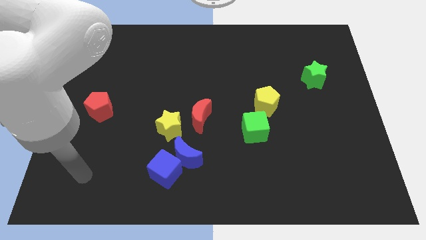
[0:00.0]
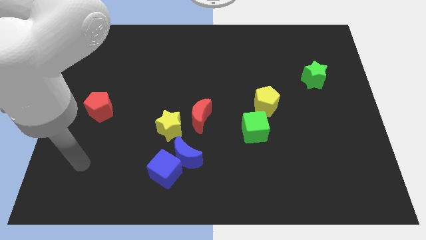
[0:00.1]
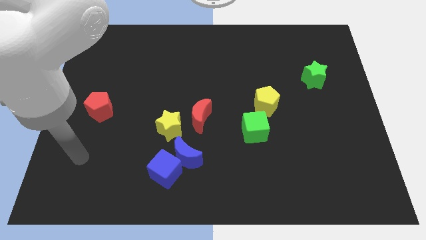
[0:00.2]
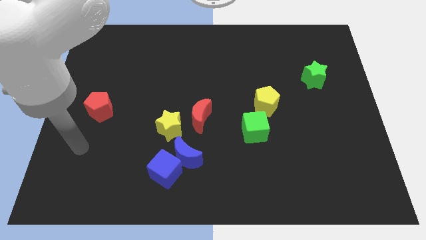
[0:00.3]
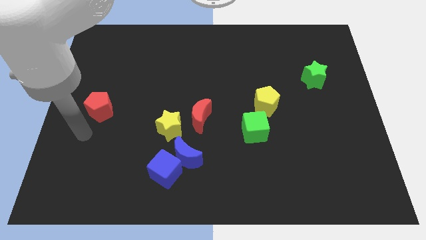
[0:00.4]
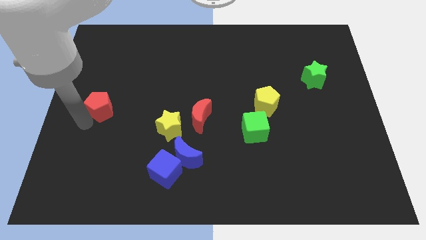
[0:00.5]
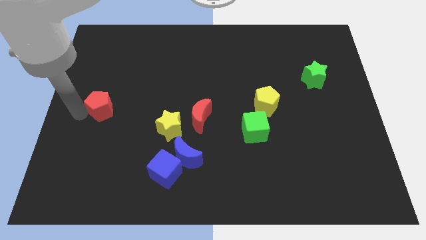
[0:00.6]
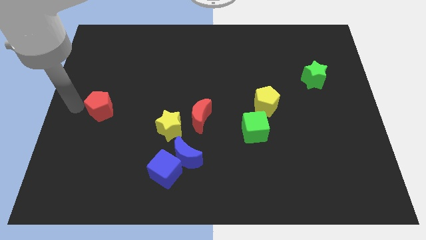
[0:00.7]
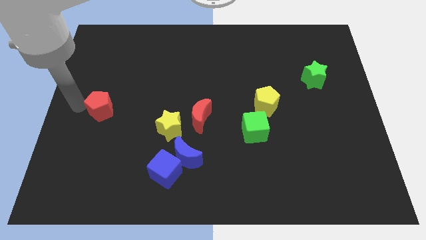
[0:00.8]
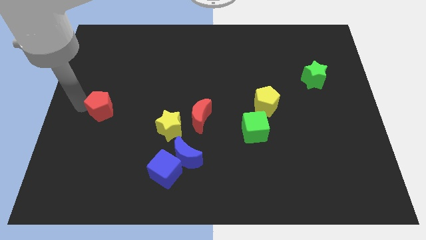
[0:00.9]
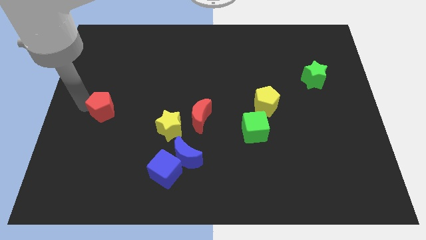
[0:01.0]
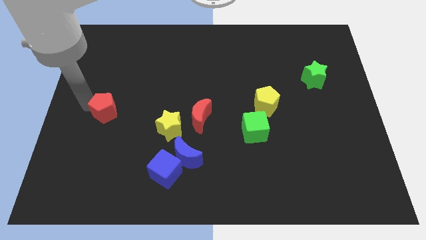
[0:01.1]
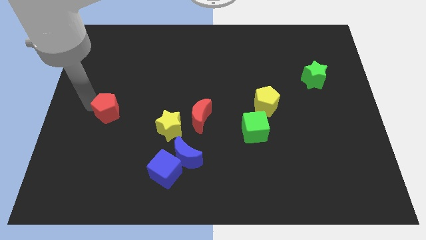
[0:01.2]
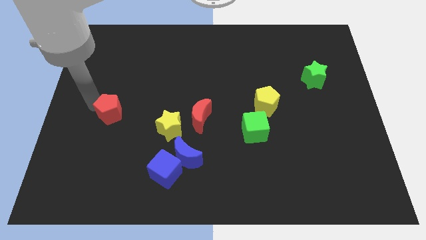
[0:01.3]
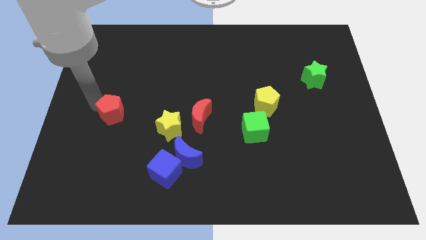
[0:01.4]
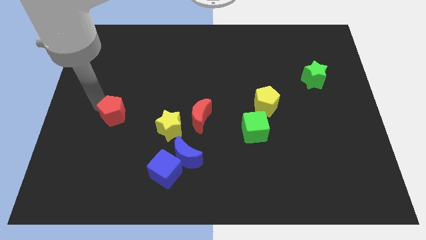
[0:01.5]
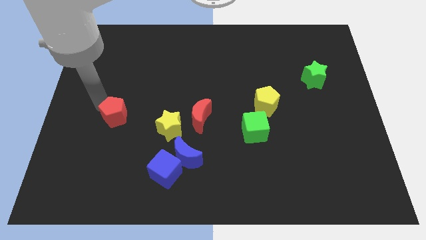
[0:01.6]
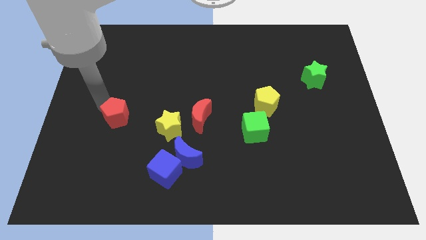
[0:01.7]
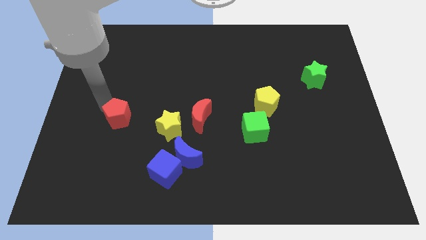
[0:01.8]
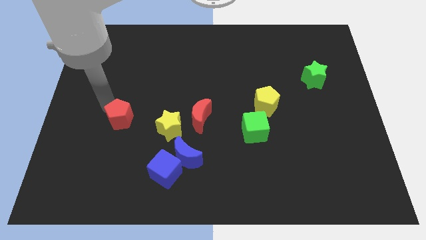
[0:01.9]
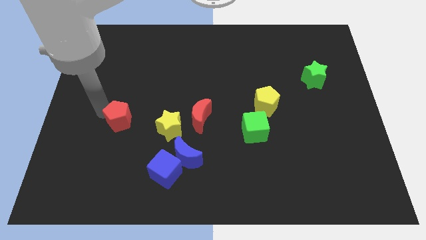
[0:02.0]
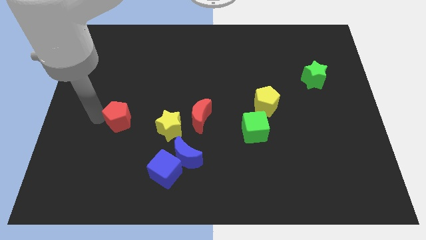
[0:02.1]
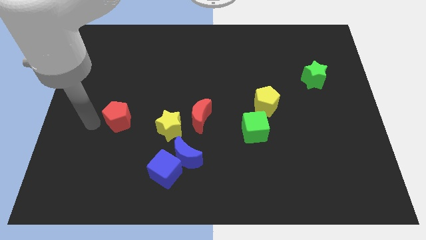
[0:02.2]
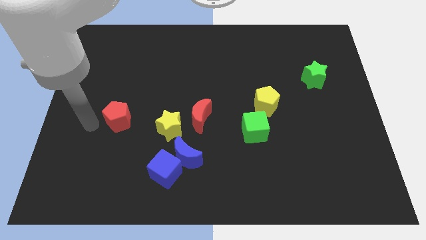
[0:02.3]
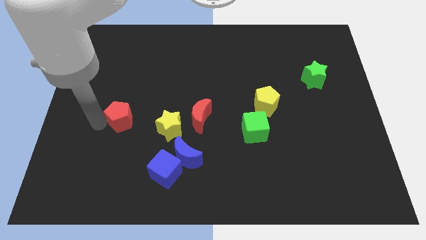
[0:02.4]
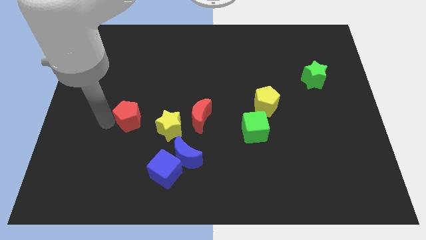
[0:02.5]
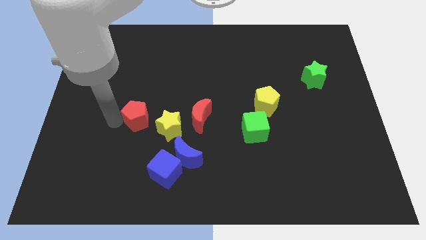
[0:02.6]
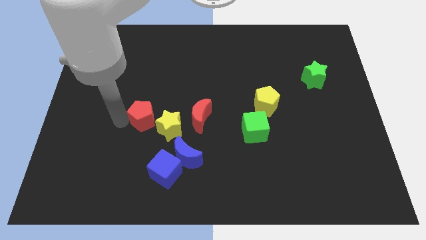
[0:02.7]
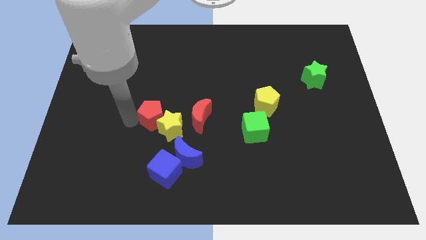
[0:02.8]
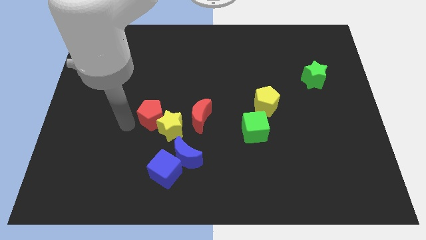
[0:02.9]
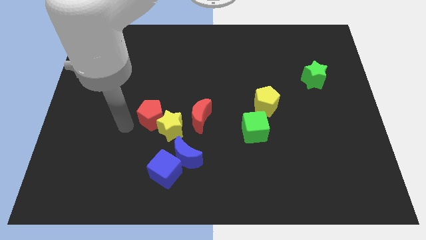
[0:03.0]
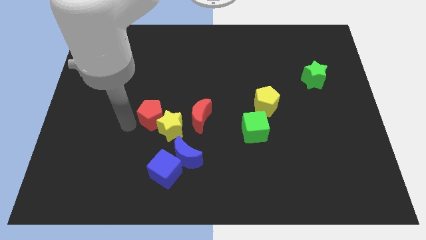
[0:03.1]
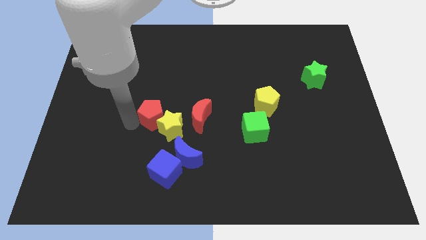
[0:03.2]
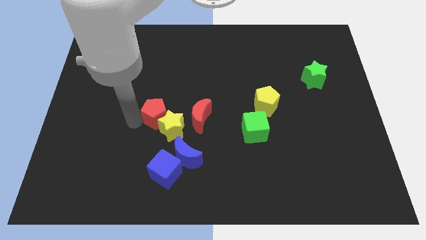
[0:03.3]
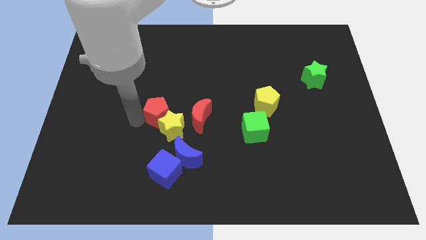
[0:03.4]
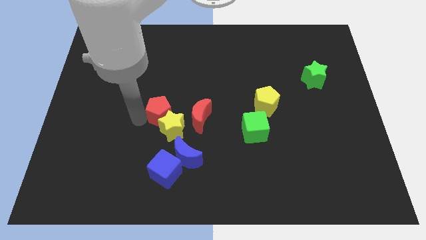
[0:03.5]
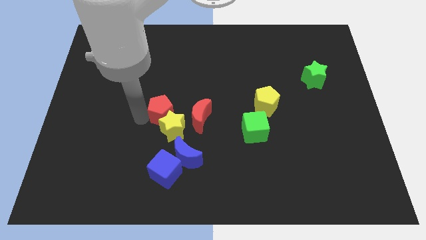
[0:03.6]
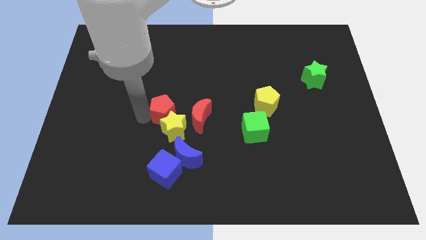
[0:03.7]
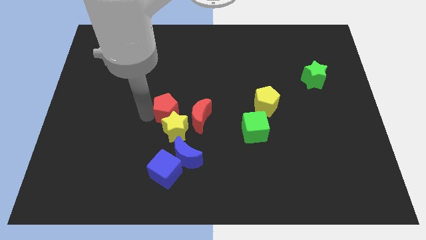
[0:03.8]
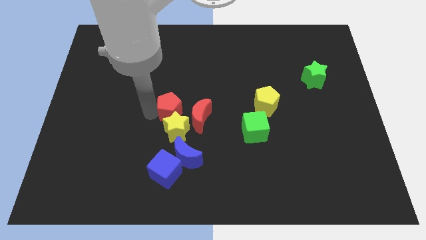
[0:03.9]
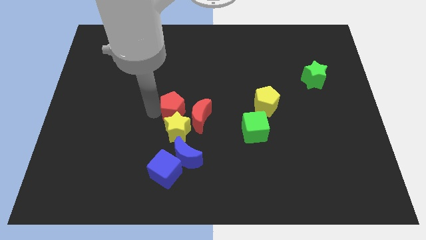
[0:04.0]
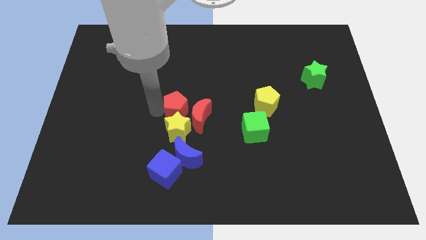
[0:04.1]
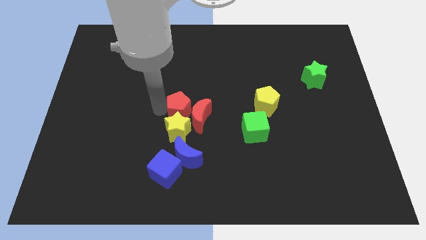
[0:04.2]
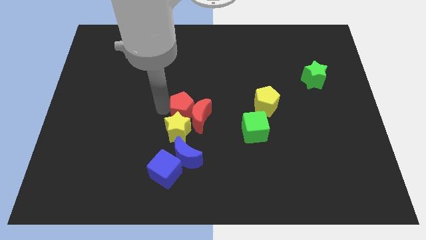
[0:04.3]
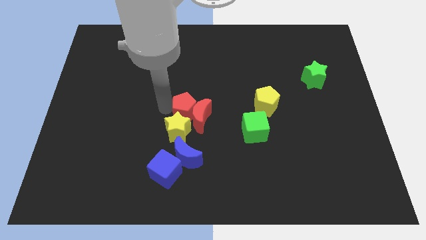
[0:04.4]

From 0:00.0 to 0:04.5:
slide the red pentagon right

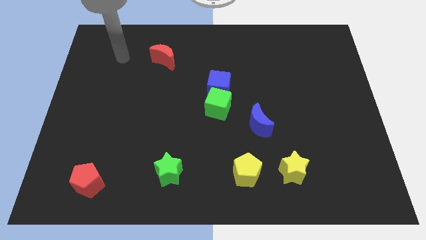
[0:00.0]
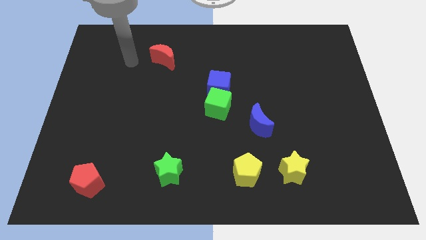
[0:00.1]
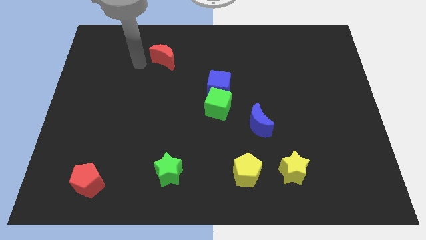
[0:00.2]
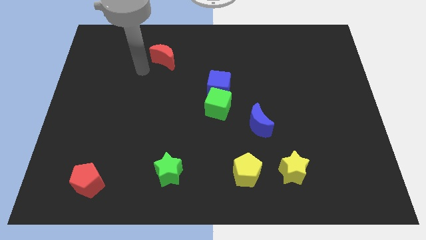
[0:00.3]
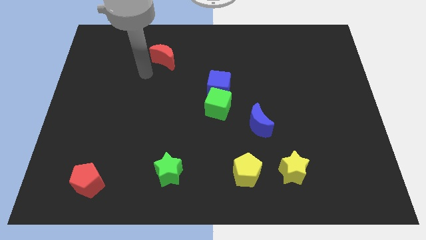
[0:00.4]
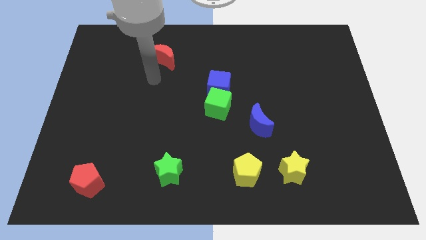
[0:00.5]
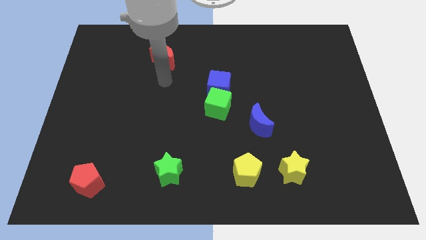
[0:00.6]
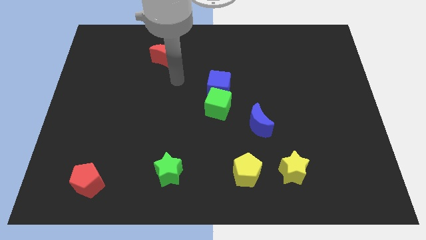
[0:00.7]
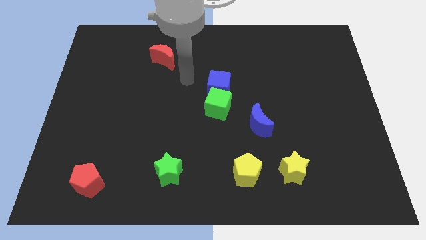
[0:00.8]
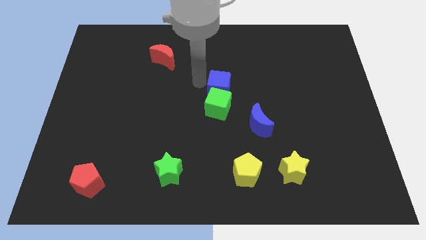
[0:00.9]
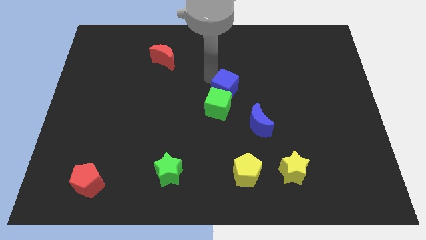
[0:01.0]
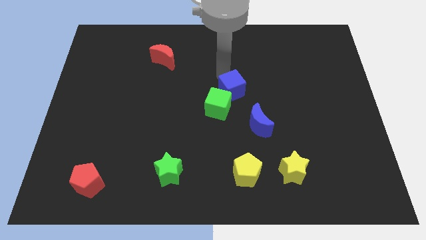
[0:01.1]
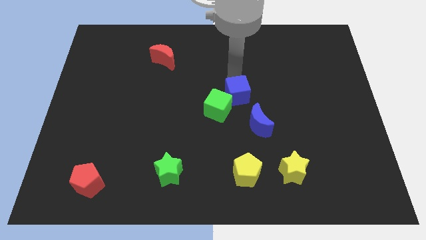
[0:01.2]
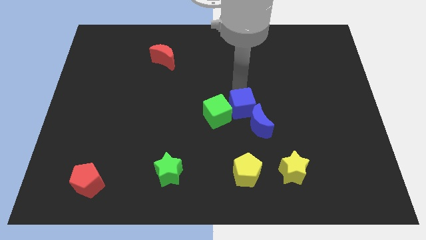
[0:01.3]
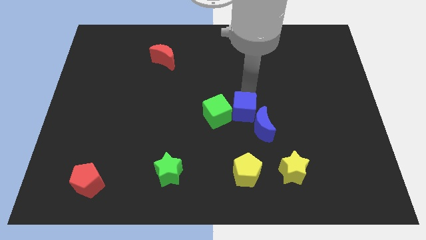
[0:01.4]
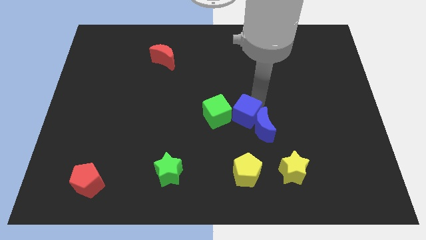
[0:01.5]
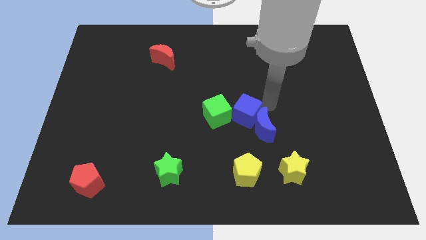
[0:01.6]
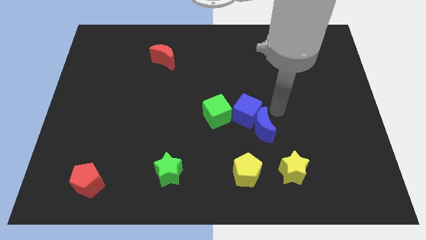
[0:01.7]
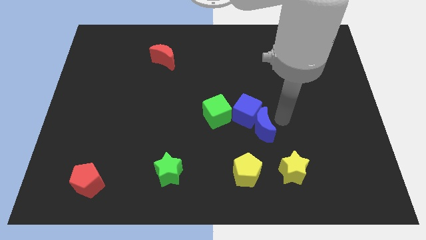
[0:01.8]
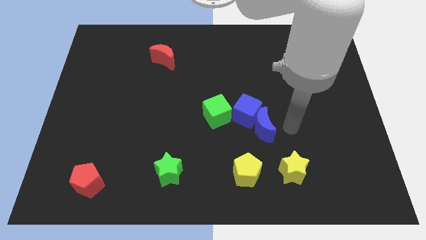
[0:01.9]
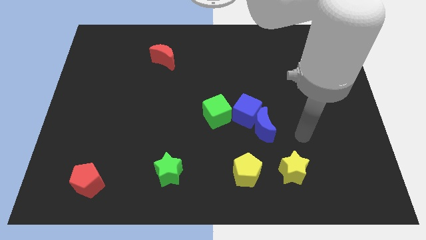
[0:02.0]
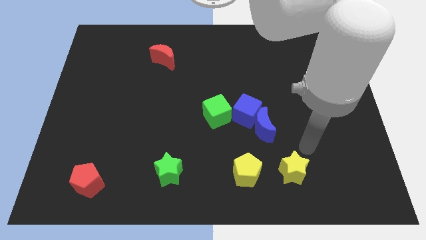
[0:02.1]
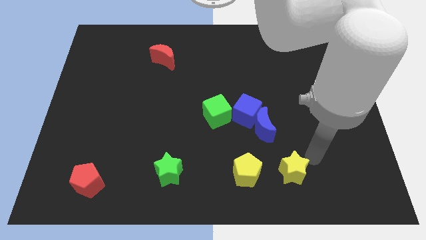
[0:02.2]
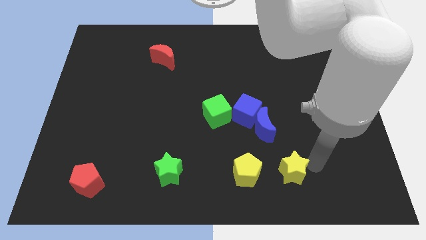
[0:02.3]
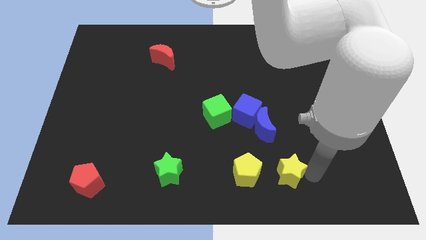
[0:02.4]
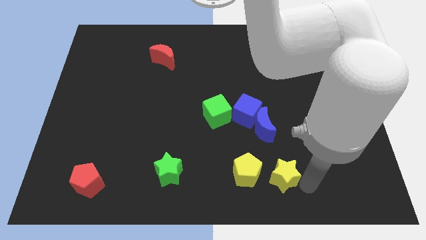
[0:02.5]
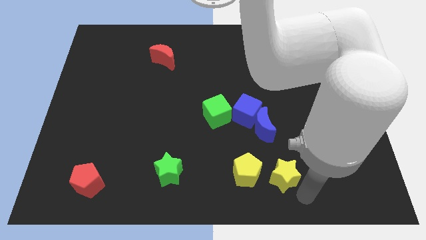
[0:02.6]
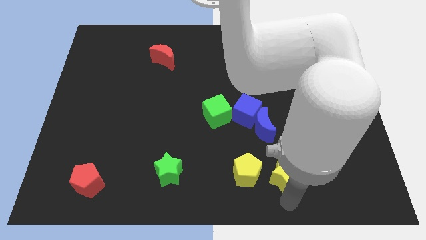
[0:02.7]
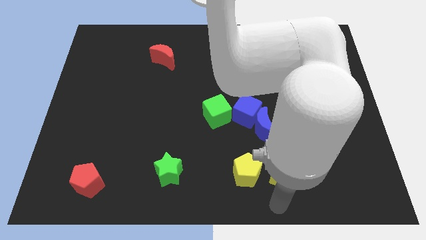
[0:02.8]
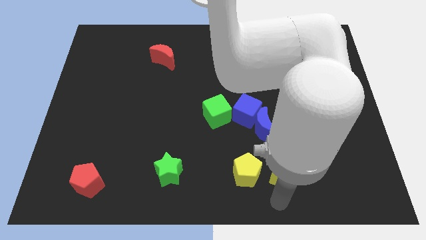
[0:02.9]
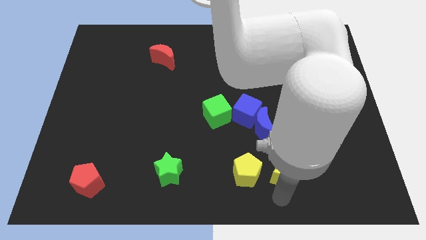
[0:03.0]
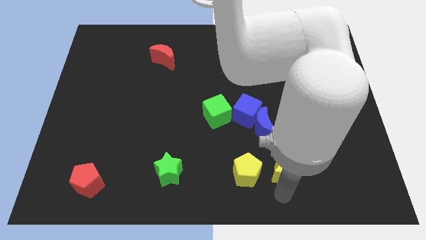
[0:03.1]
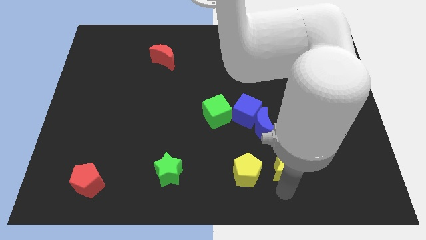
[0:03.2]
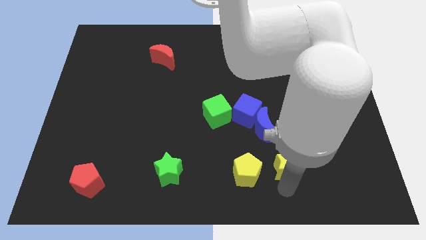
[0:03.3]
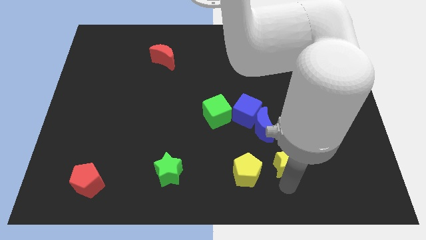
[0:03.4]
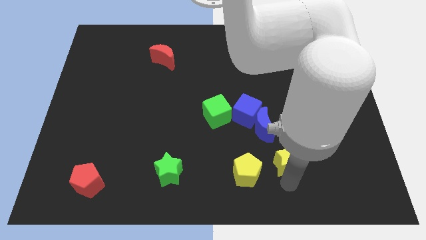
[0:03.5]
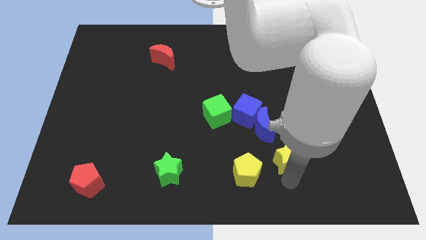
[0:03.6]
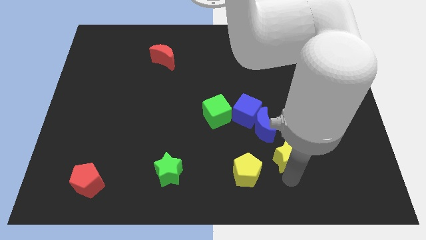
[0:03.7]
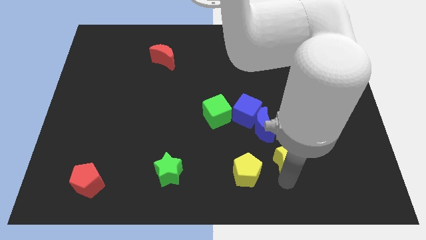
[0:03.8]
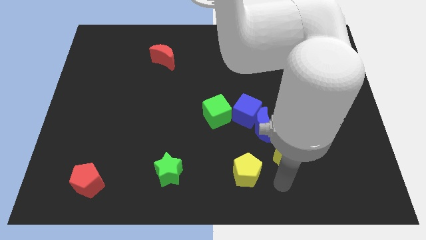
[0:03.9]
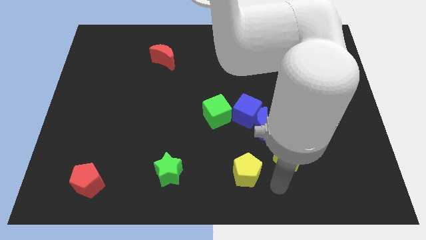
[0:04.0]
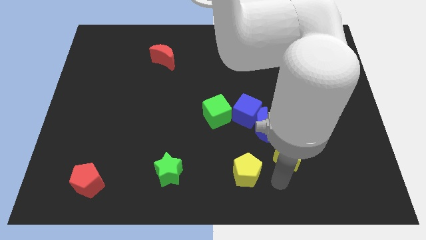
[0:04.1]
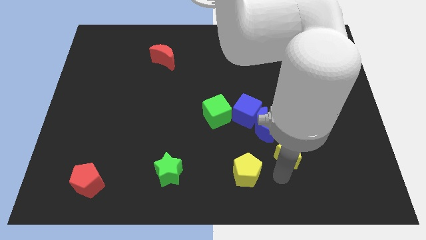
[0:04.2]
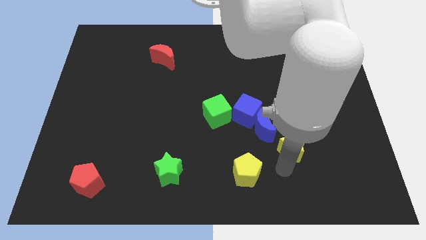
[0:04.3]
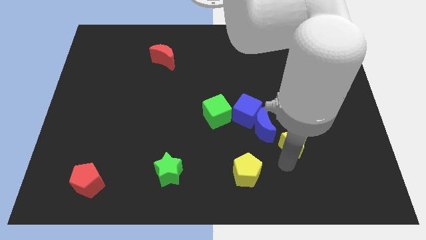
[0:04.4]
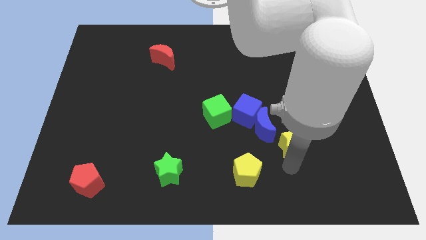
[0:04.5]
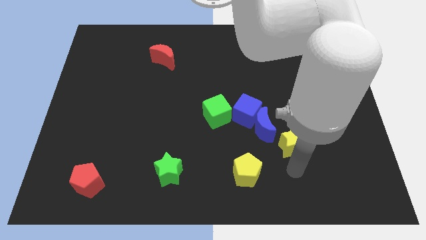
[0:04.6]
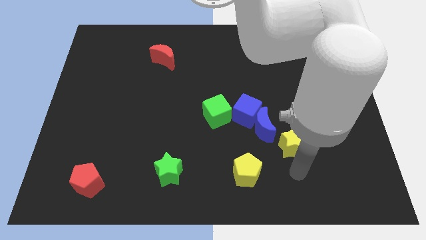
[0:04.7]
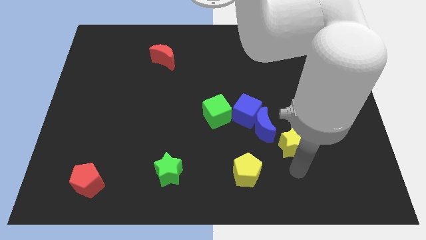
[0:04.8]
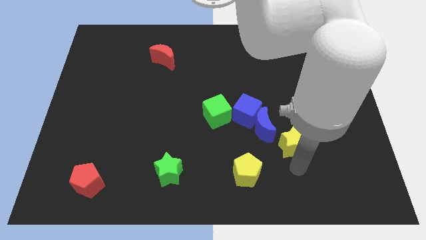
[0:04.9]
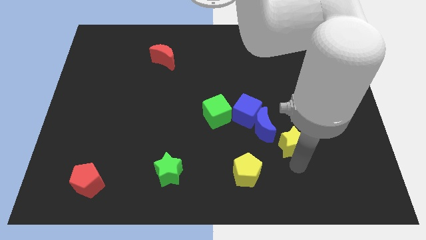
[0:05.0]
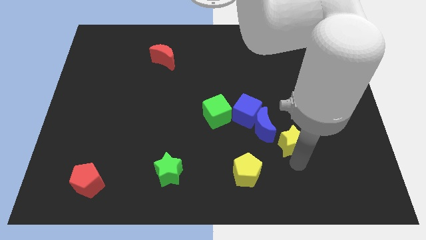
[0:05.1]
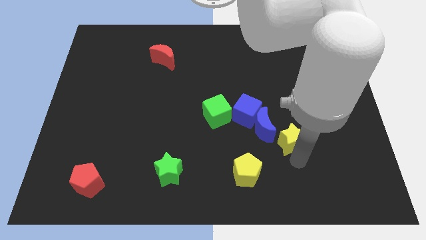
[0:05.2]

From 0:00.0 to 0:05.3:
move the yellow star up a little
